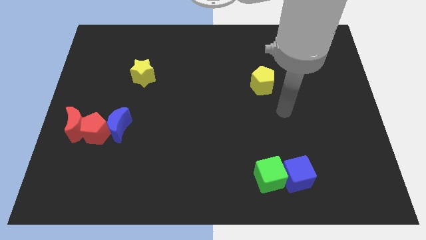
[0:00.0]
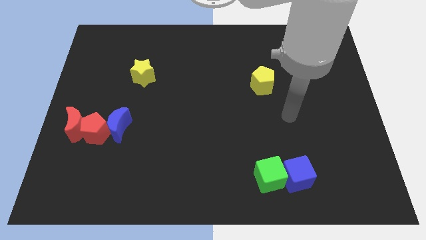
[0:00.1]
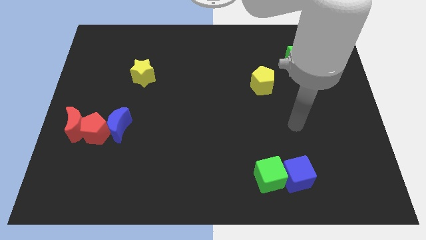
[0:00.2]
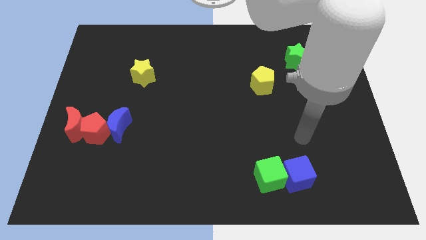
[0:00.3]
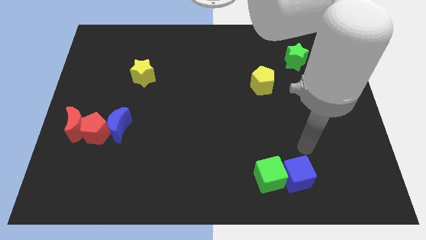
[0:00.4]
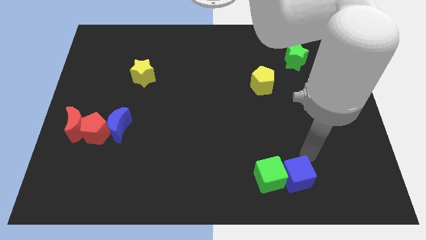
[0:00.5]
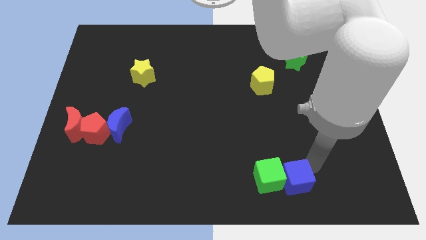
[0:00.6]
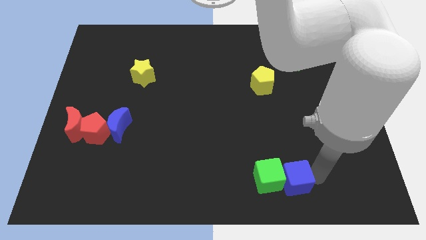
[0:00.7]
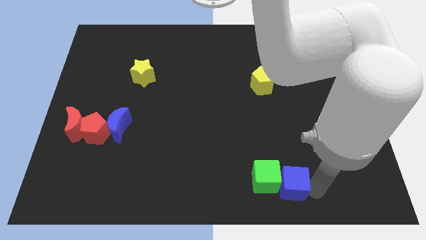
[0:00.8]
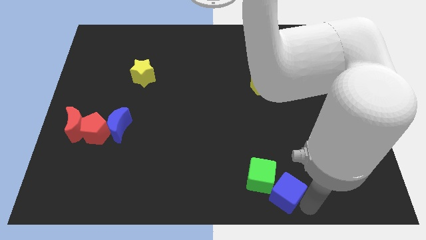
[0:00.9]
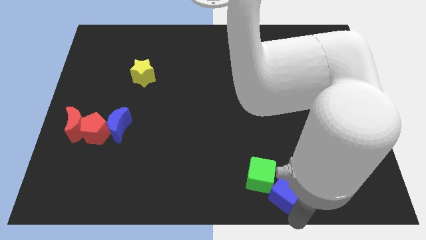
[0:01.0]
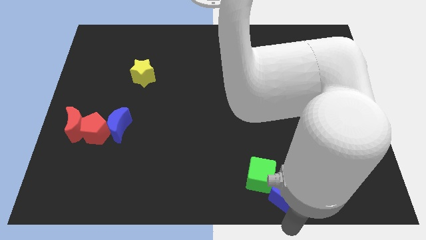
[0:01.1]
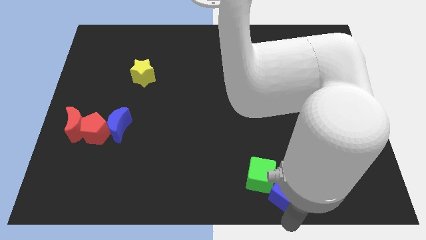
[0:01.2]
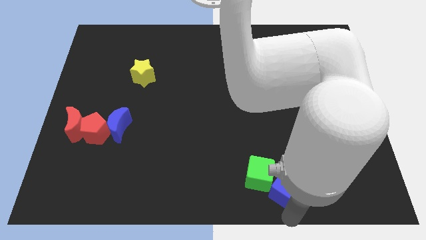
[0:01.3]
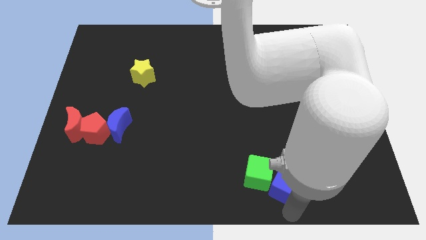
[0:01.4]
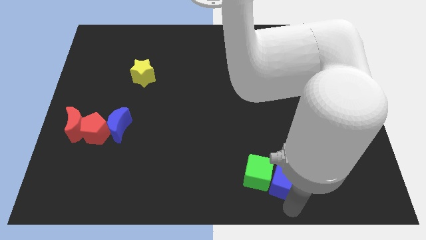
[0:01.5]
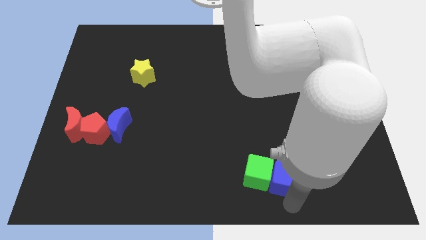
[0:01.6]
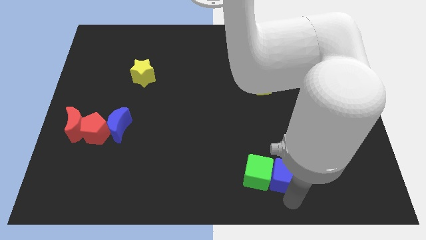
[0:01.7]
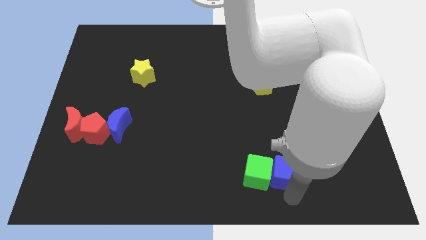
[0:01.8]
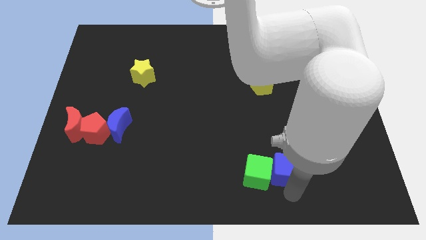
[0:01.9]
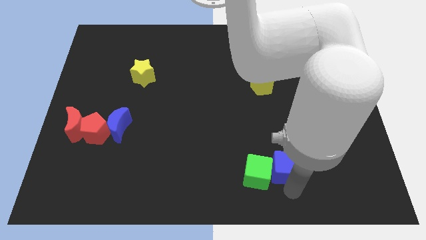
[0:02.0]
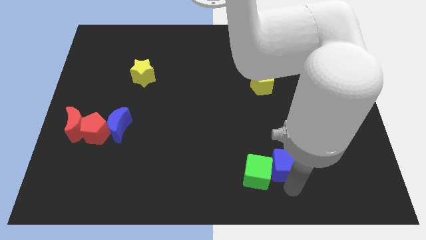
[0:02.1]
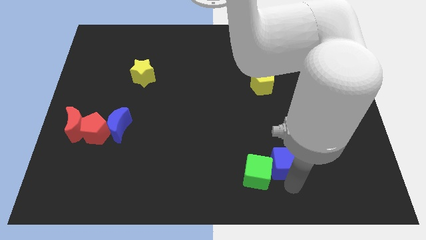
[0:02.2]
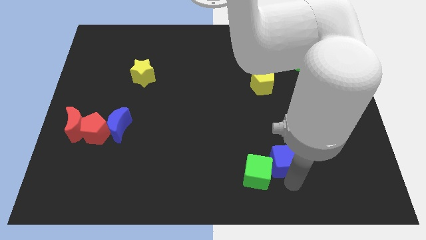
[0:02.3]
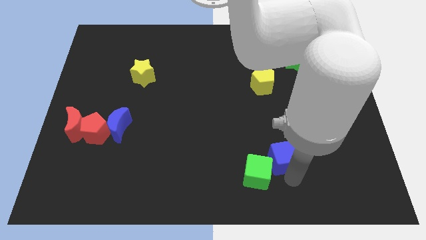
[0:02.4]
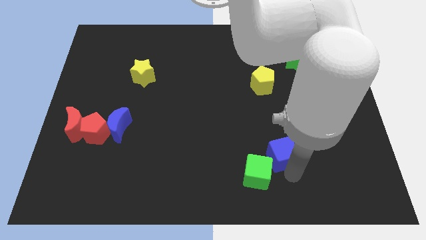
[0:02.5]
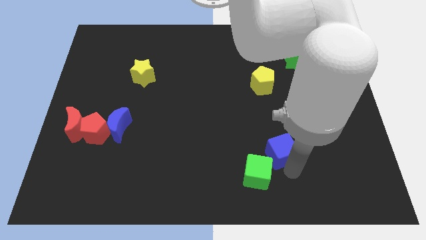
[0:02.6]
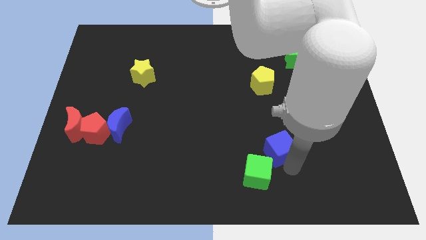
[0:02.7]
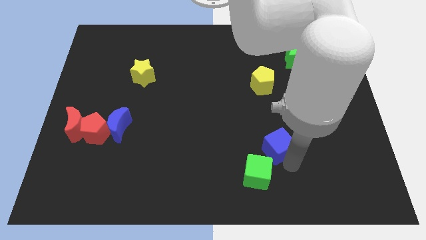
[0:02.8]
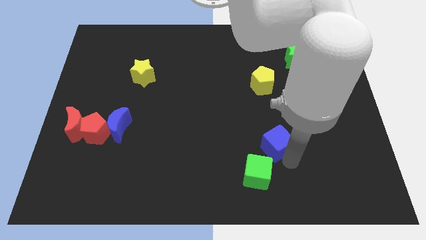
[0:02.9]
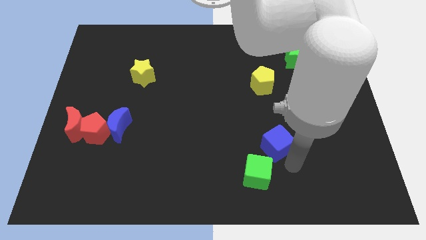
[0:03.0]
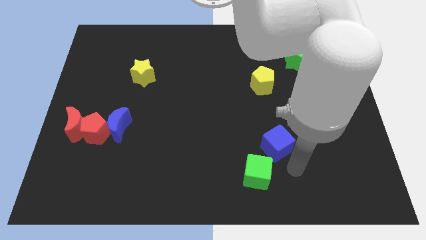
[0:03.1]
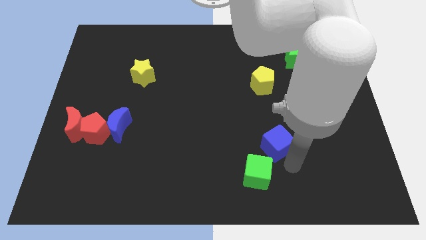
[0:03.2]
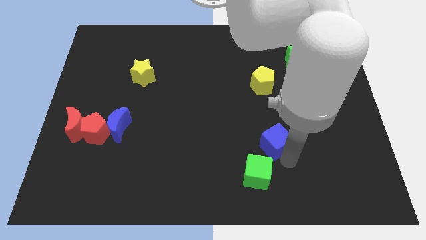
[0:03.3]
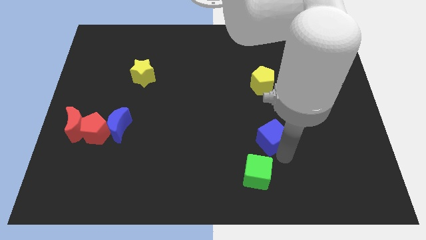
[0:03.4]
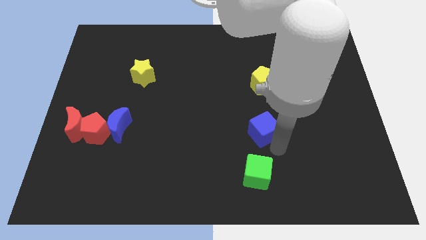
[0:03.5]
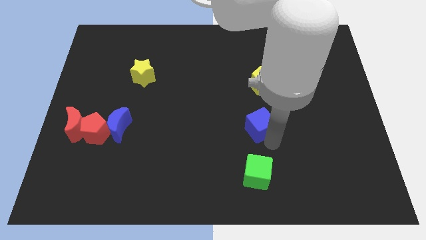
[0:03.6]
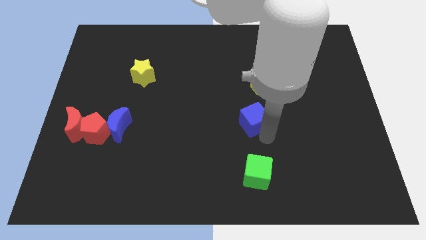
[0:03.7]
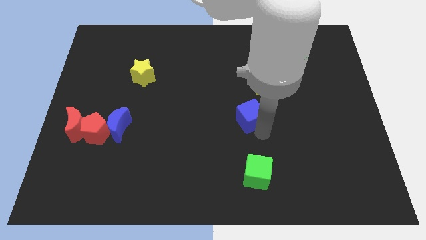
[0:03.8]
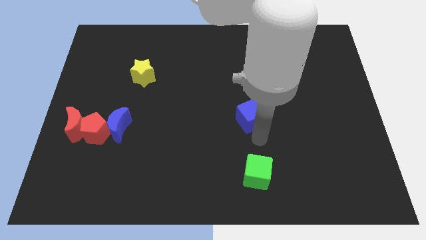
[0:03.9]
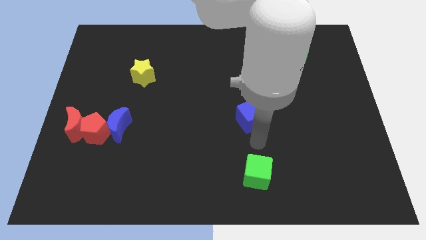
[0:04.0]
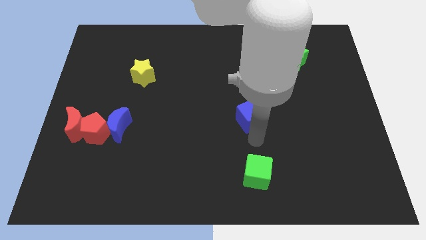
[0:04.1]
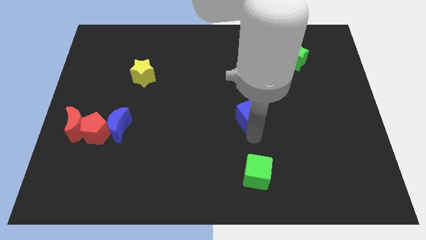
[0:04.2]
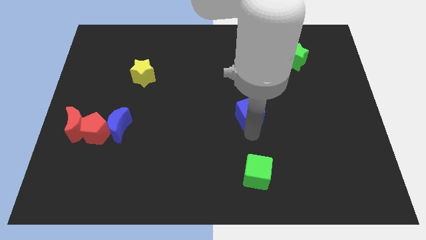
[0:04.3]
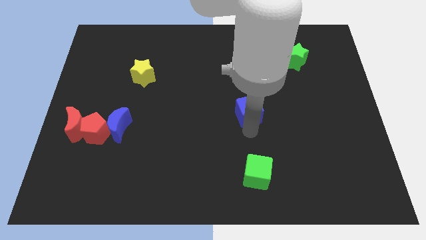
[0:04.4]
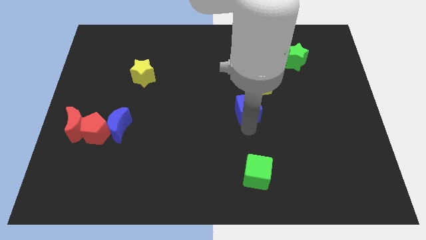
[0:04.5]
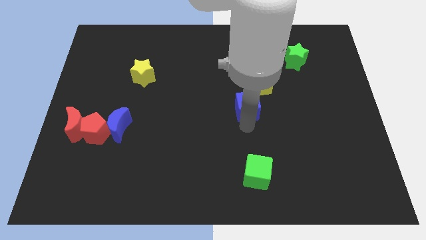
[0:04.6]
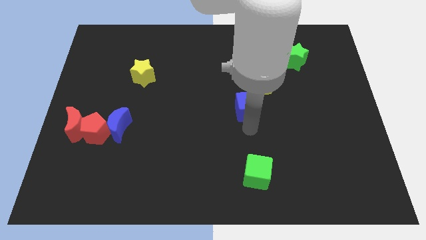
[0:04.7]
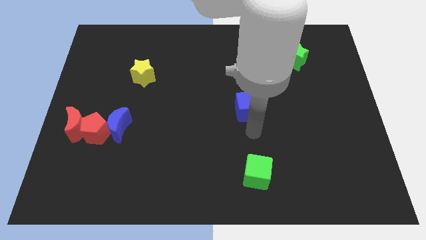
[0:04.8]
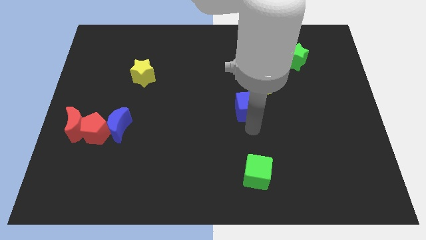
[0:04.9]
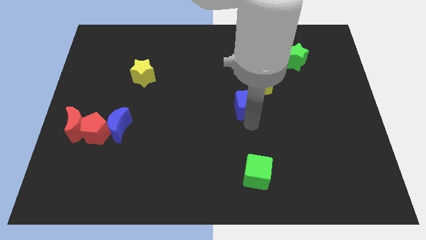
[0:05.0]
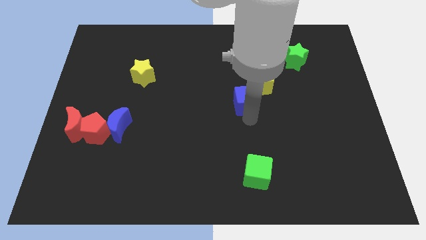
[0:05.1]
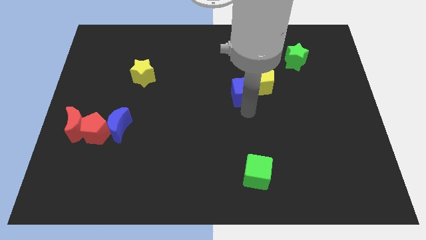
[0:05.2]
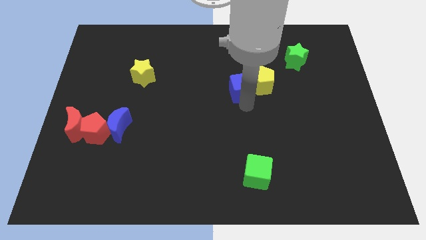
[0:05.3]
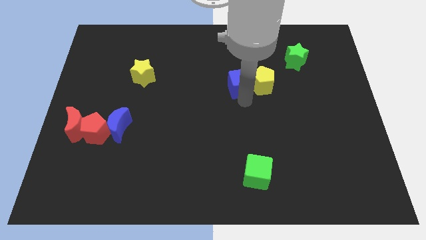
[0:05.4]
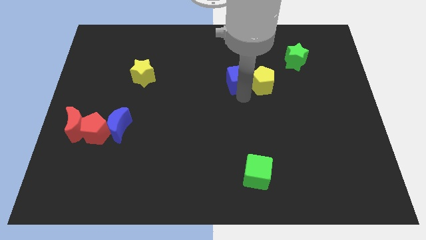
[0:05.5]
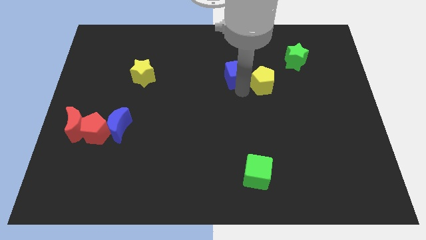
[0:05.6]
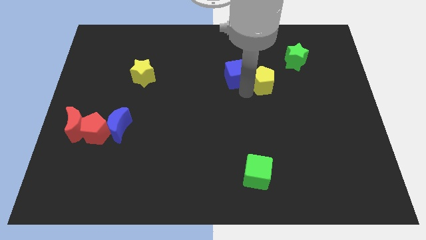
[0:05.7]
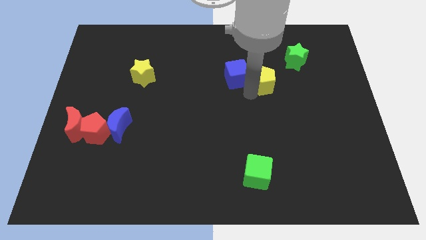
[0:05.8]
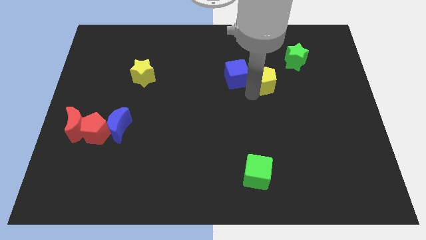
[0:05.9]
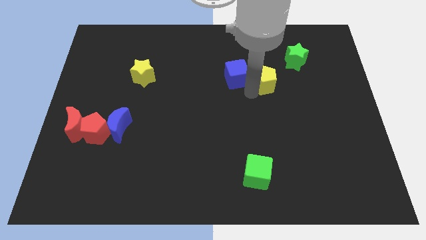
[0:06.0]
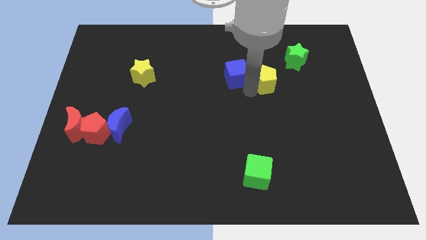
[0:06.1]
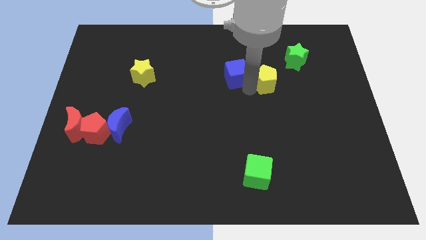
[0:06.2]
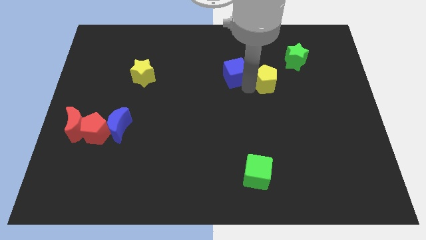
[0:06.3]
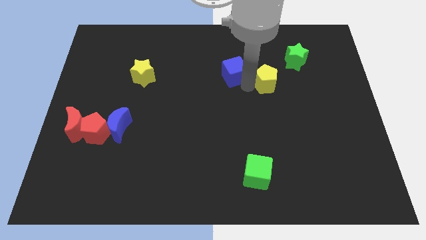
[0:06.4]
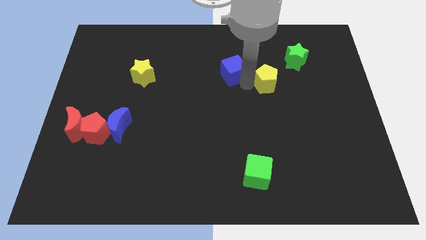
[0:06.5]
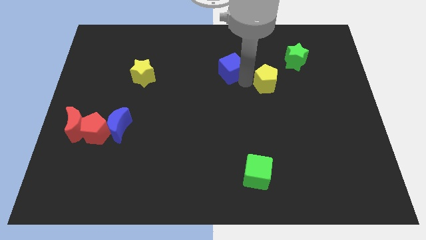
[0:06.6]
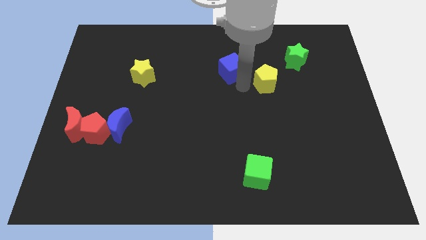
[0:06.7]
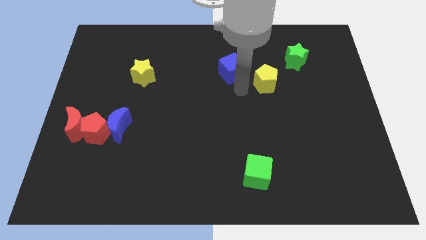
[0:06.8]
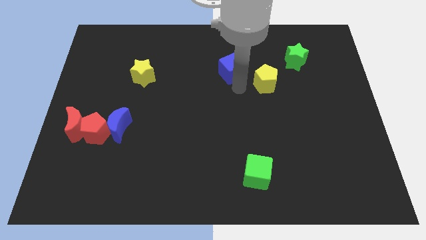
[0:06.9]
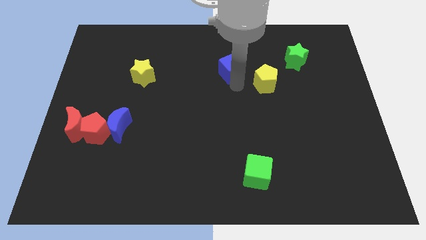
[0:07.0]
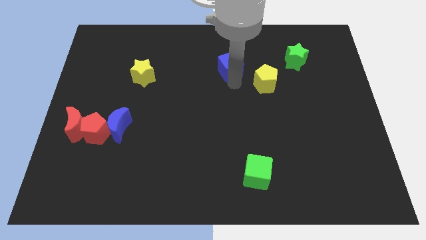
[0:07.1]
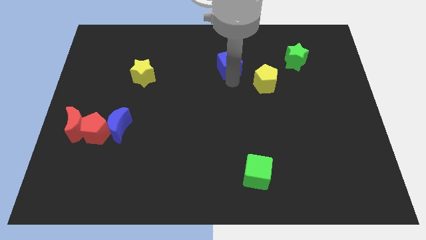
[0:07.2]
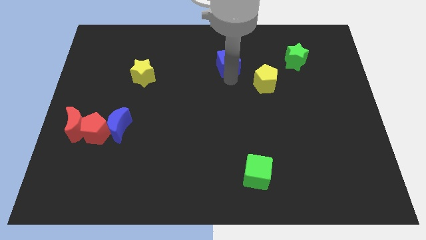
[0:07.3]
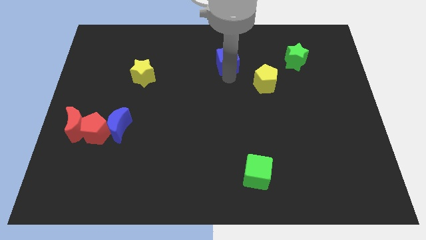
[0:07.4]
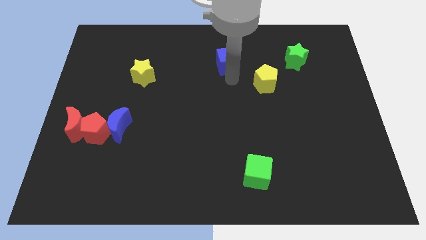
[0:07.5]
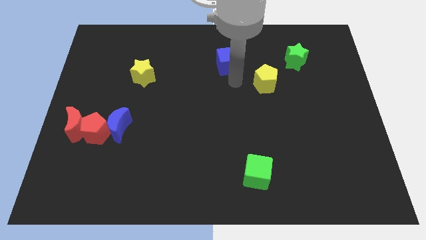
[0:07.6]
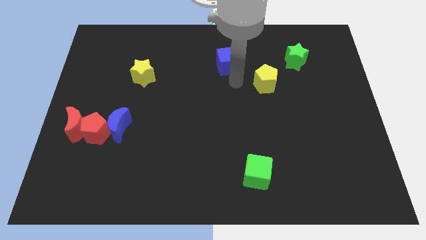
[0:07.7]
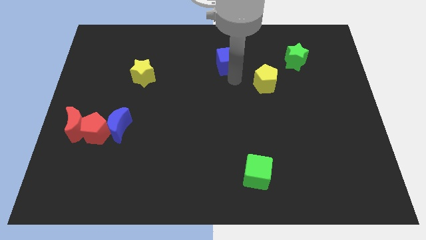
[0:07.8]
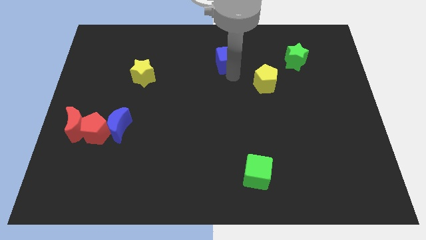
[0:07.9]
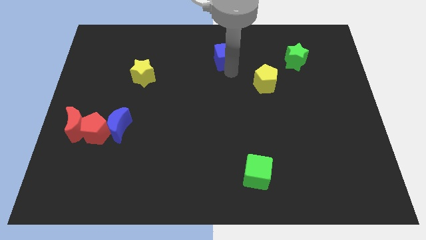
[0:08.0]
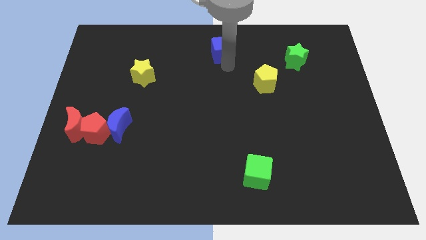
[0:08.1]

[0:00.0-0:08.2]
slide the blue cube to the towards your base
